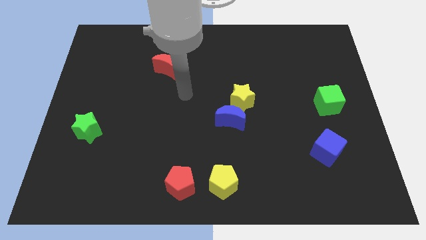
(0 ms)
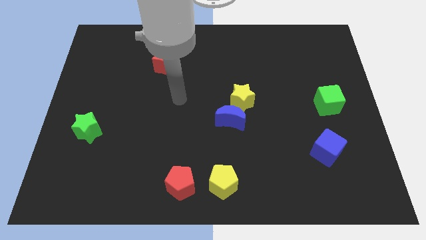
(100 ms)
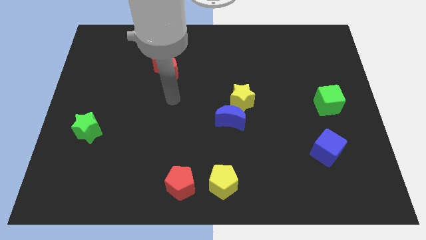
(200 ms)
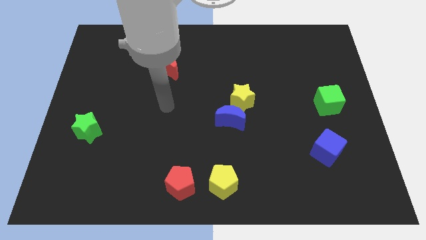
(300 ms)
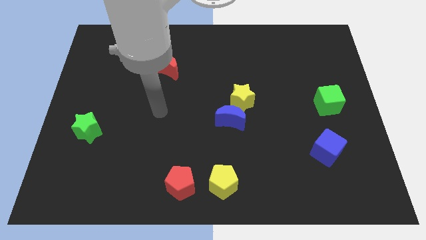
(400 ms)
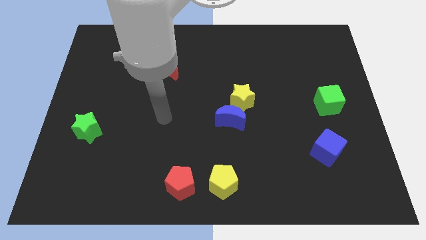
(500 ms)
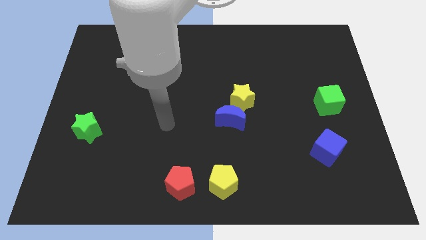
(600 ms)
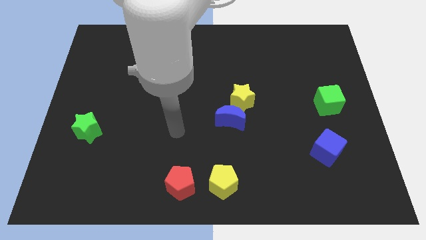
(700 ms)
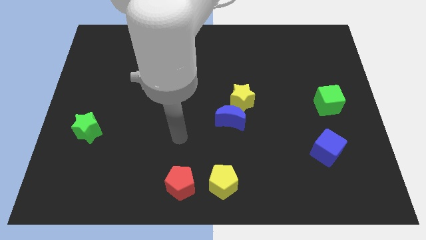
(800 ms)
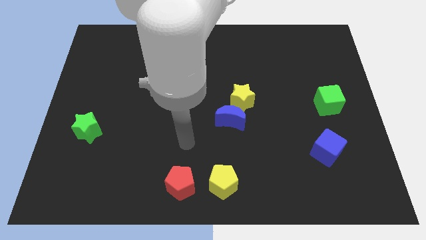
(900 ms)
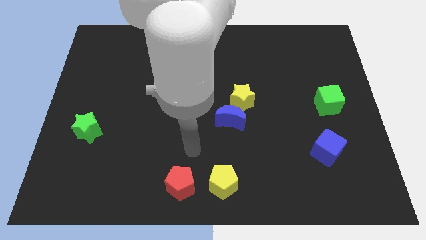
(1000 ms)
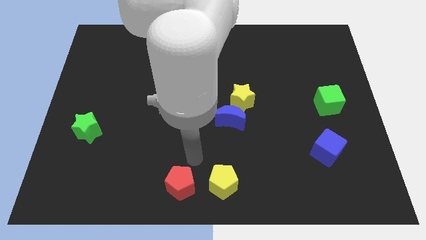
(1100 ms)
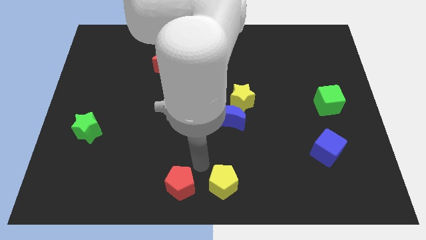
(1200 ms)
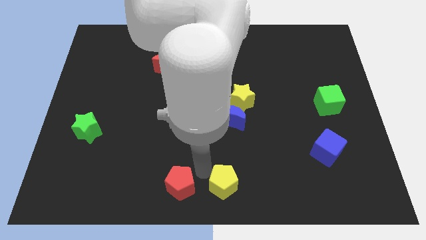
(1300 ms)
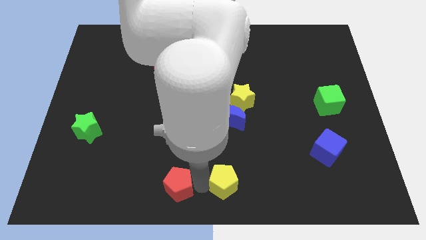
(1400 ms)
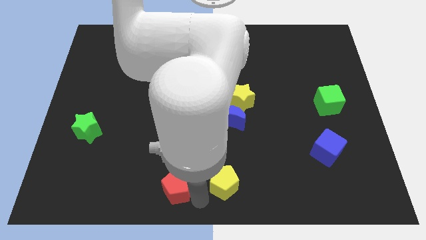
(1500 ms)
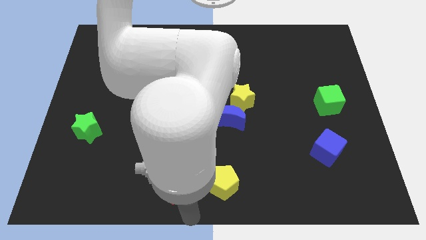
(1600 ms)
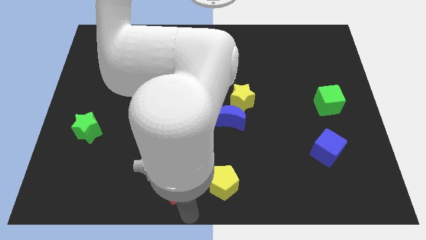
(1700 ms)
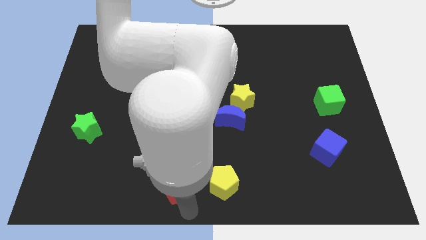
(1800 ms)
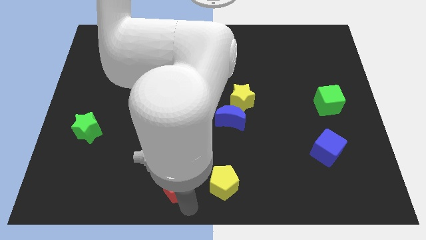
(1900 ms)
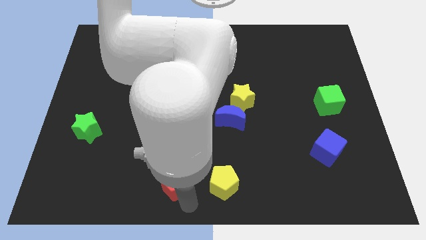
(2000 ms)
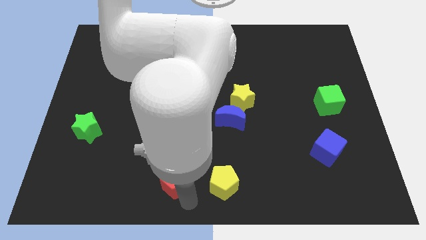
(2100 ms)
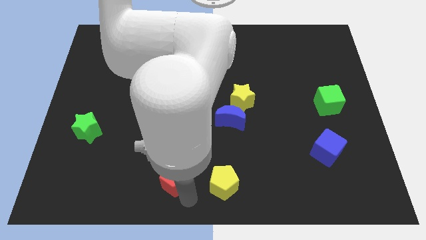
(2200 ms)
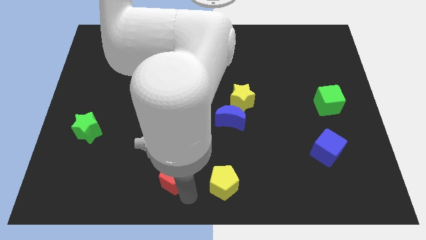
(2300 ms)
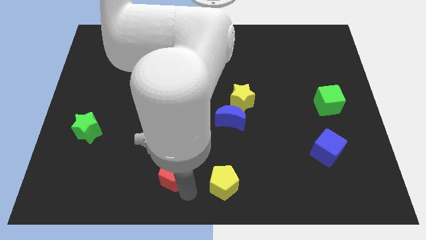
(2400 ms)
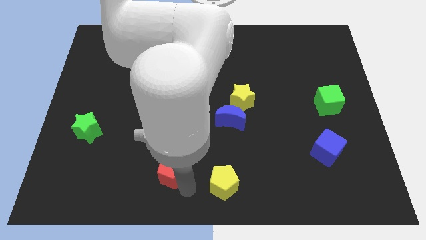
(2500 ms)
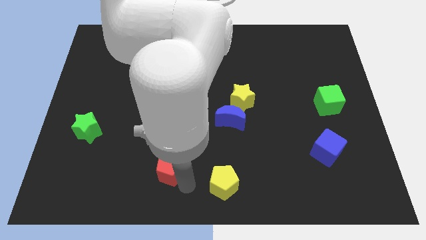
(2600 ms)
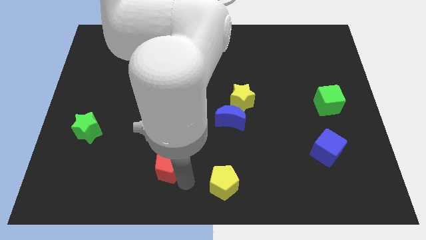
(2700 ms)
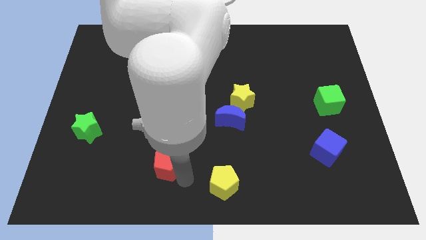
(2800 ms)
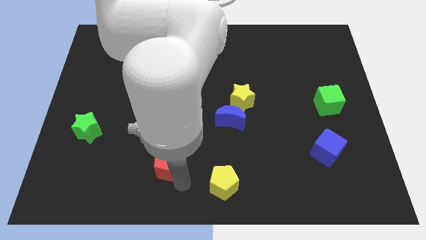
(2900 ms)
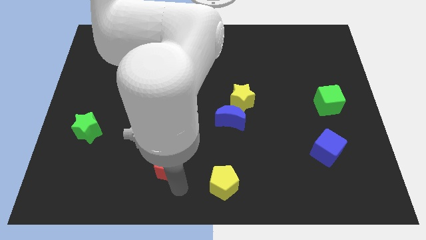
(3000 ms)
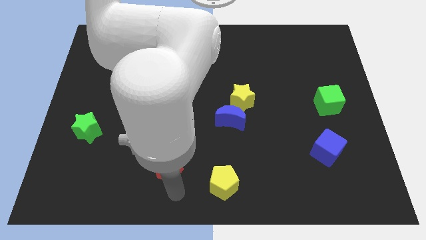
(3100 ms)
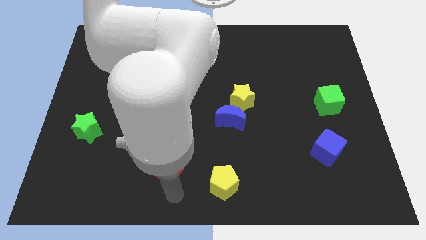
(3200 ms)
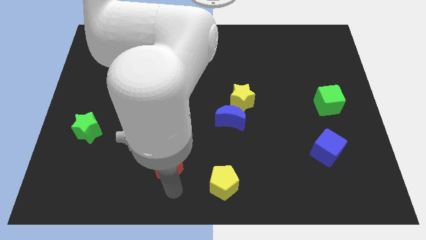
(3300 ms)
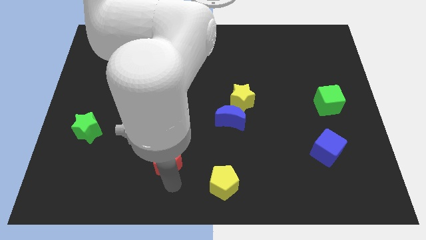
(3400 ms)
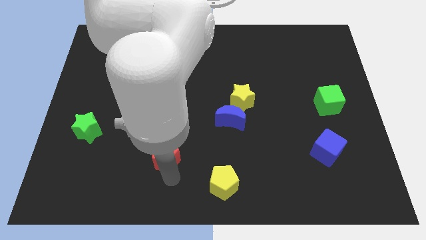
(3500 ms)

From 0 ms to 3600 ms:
push the red pentagon upwards and left diagonally a little bit

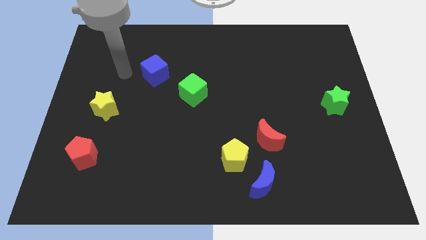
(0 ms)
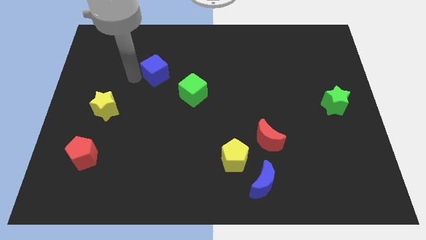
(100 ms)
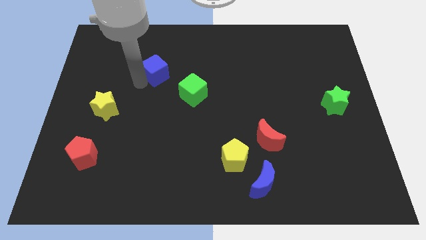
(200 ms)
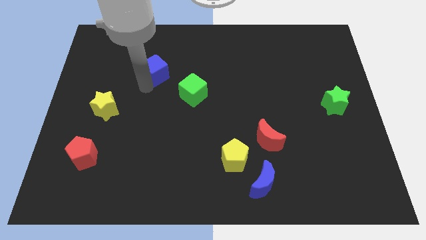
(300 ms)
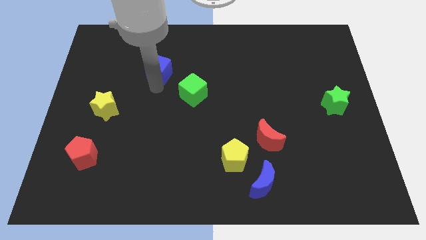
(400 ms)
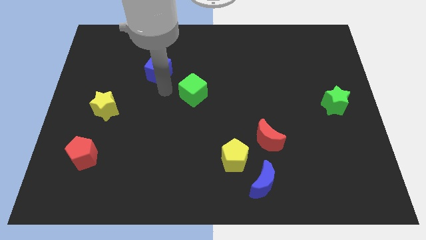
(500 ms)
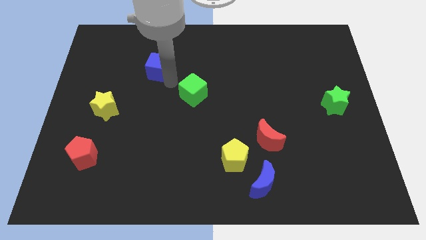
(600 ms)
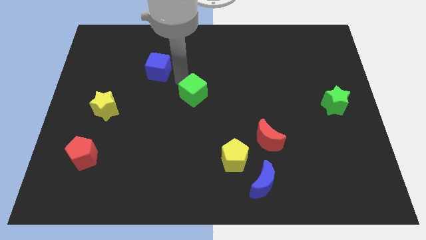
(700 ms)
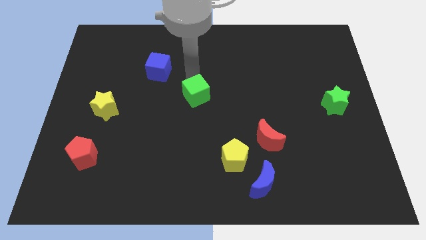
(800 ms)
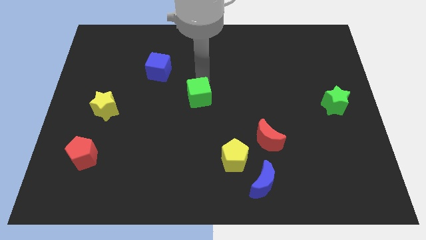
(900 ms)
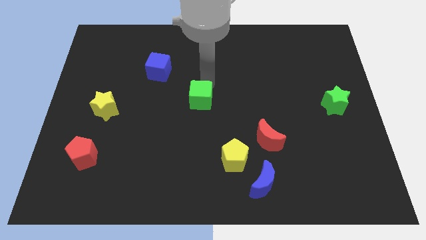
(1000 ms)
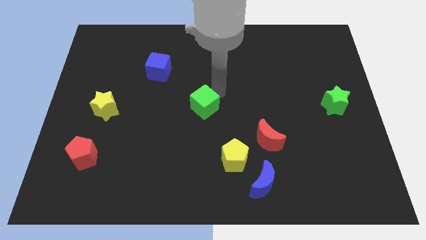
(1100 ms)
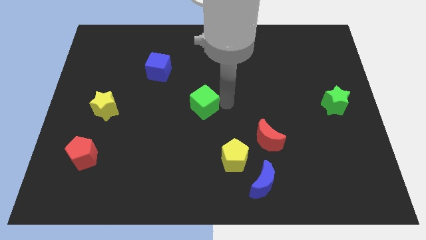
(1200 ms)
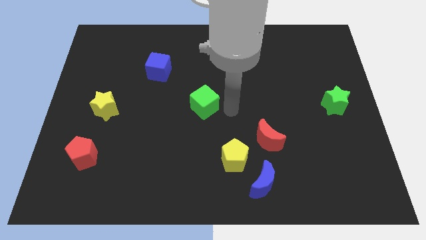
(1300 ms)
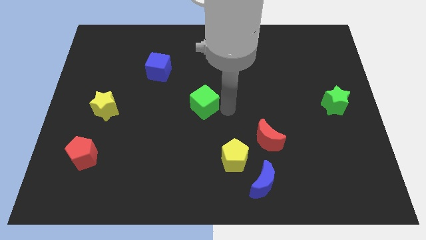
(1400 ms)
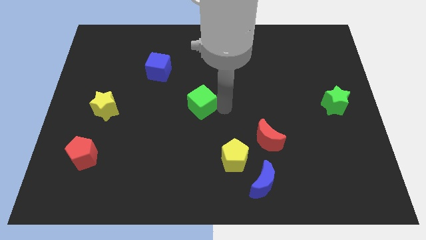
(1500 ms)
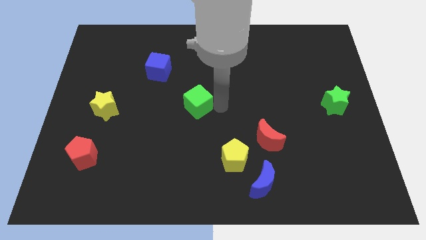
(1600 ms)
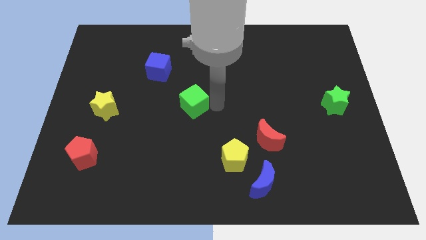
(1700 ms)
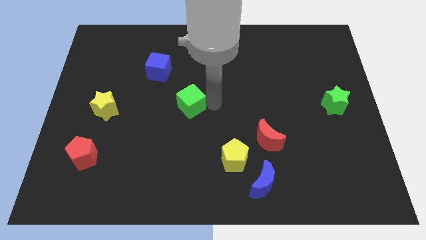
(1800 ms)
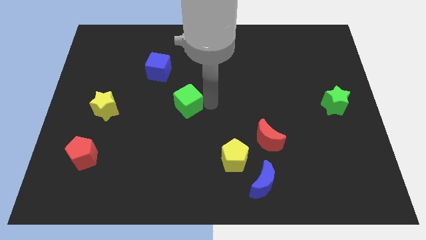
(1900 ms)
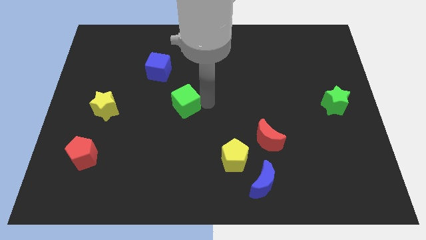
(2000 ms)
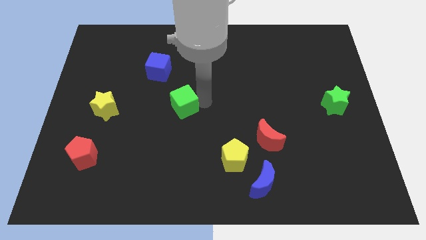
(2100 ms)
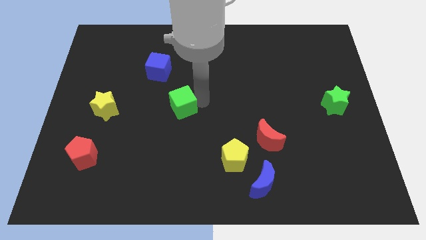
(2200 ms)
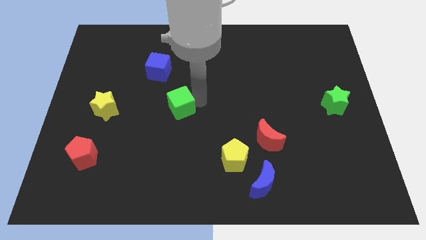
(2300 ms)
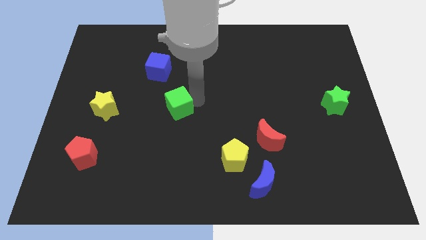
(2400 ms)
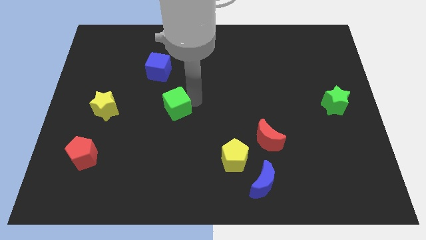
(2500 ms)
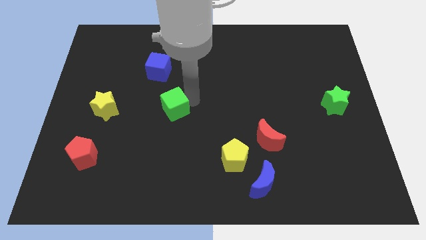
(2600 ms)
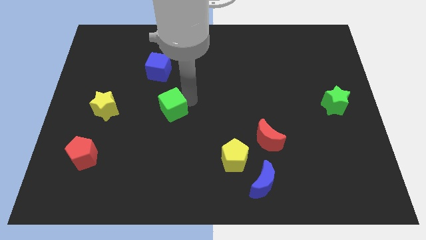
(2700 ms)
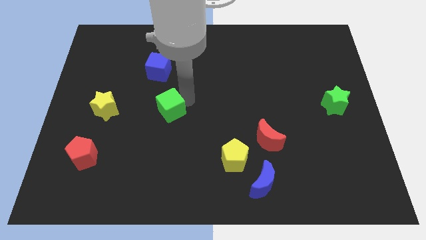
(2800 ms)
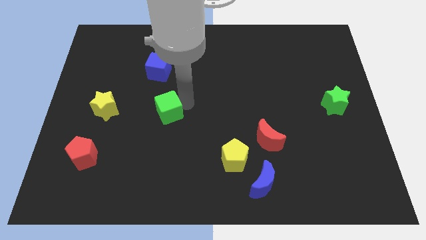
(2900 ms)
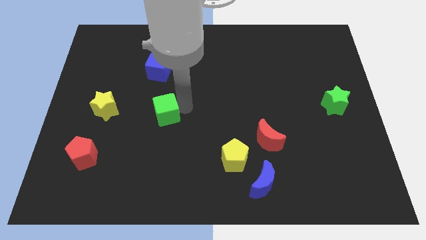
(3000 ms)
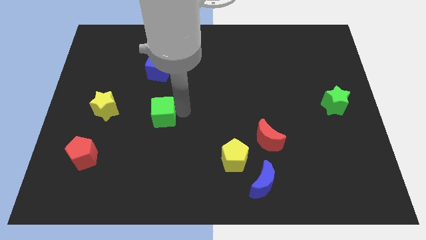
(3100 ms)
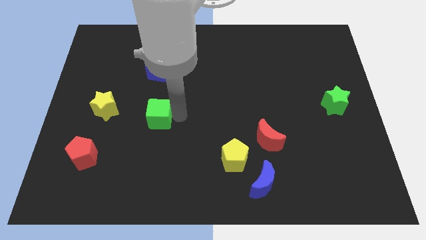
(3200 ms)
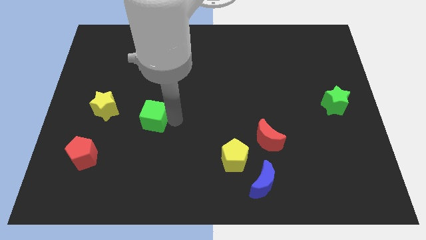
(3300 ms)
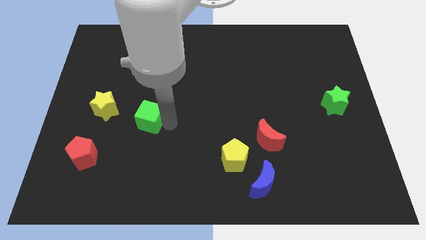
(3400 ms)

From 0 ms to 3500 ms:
push the green cube to the left a little

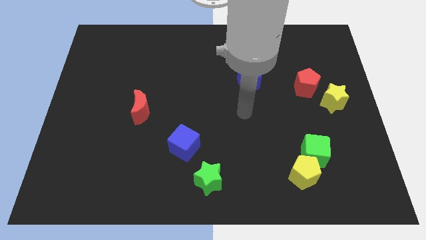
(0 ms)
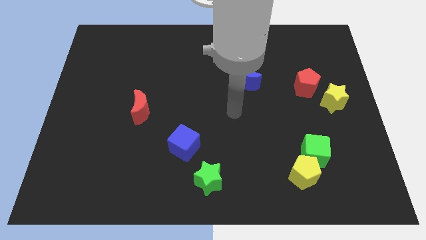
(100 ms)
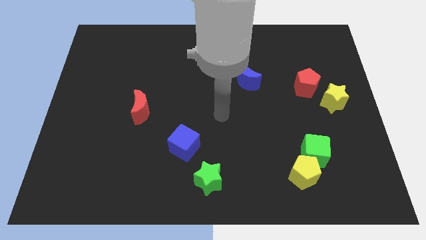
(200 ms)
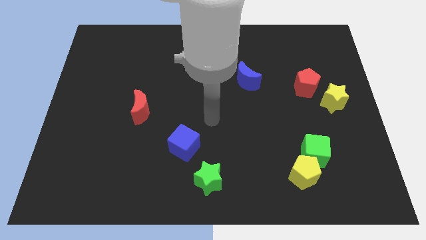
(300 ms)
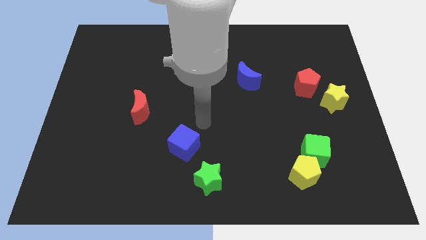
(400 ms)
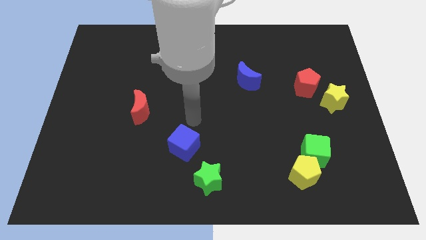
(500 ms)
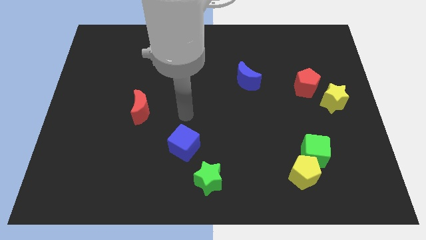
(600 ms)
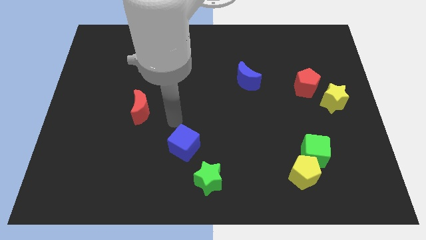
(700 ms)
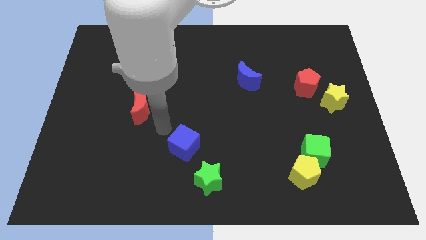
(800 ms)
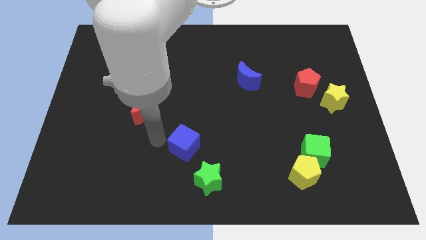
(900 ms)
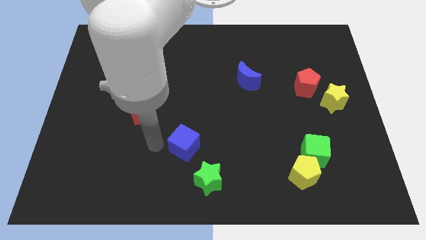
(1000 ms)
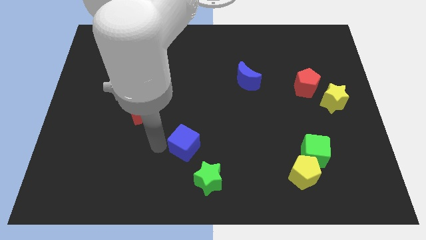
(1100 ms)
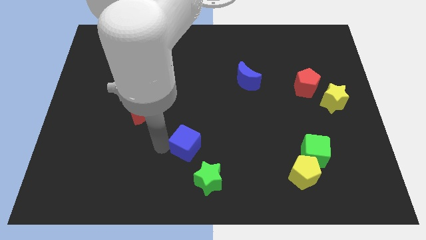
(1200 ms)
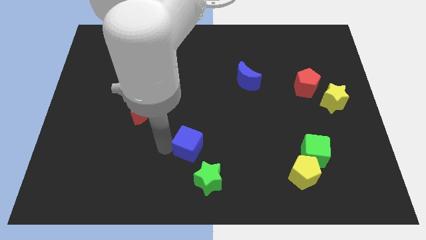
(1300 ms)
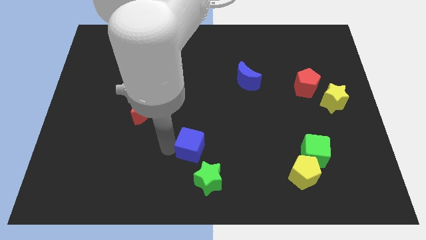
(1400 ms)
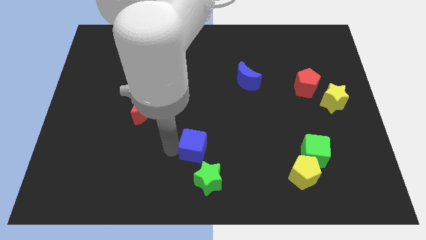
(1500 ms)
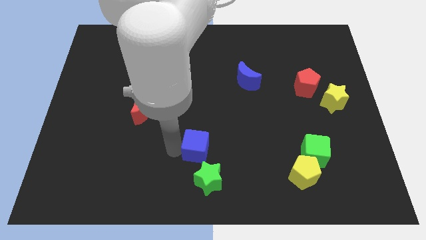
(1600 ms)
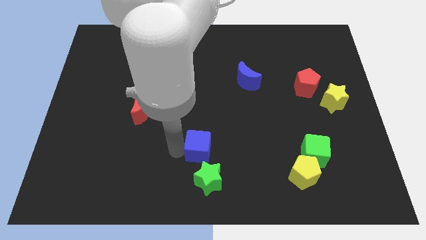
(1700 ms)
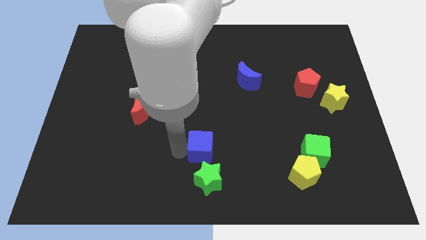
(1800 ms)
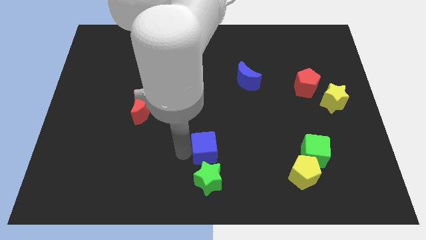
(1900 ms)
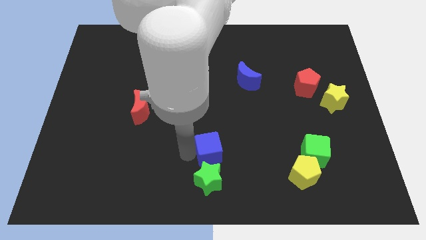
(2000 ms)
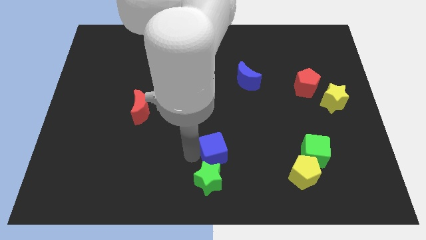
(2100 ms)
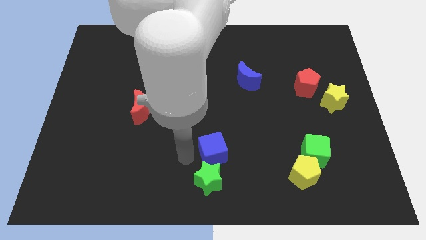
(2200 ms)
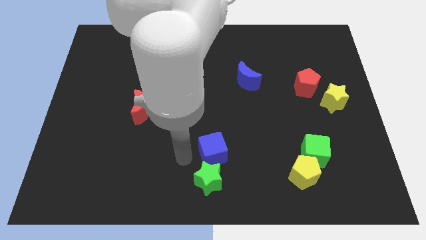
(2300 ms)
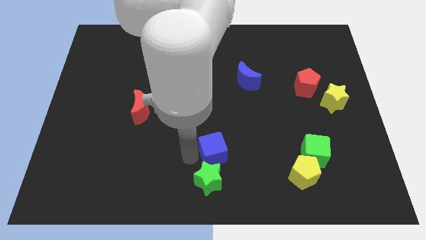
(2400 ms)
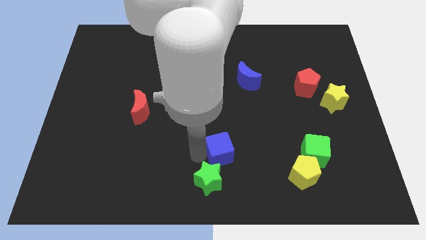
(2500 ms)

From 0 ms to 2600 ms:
slightly move the blue cube to the right
